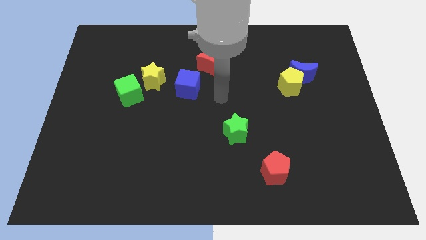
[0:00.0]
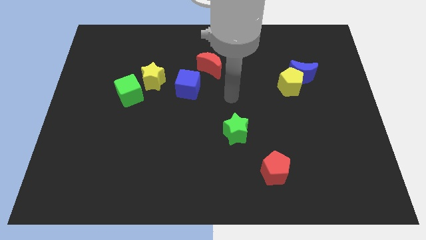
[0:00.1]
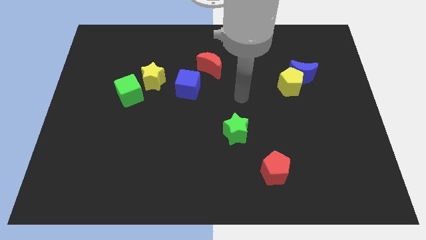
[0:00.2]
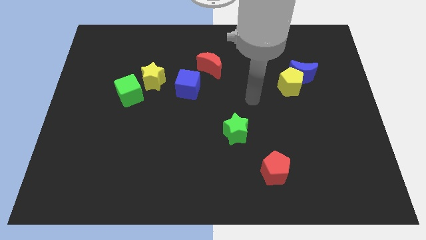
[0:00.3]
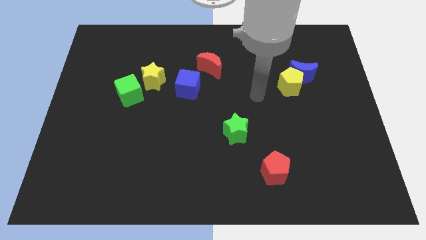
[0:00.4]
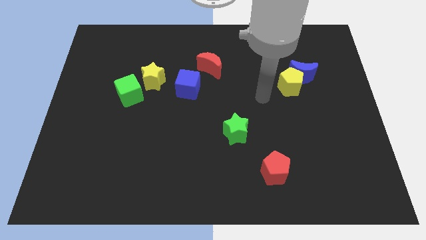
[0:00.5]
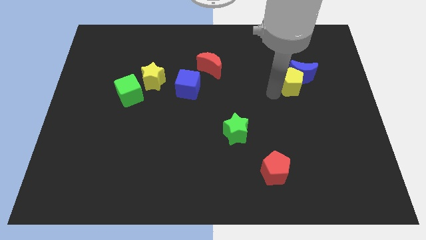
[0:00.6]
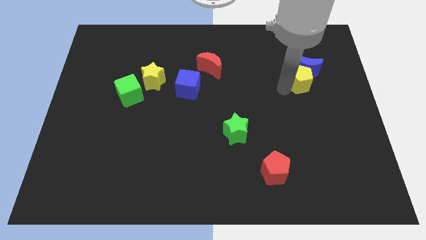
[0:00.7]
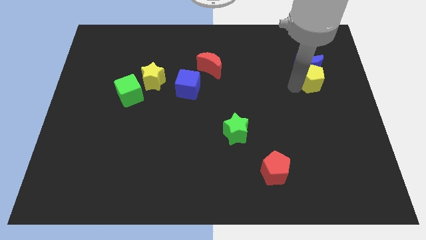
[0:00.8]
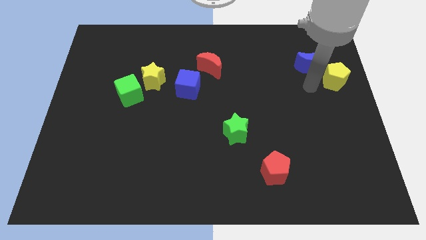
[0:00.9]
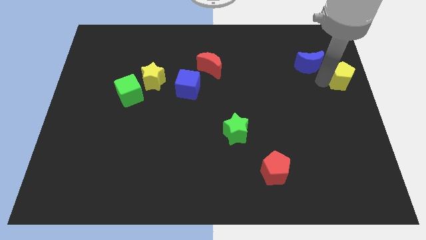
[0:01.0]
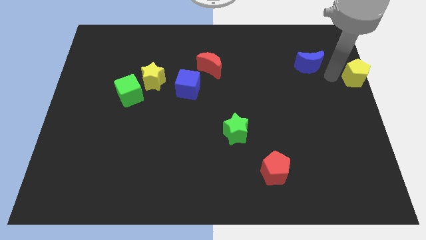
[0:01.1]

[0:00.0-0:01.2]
move the blue moon away from the yellow pentagon

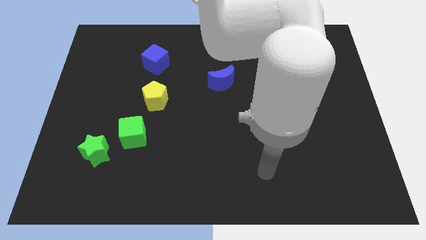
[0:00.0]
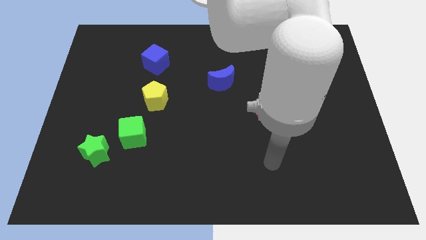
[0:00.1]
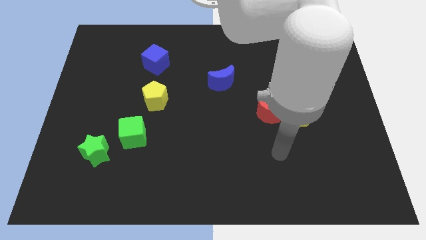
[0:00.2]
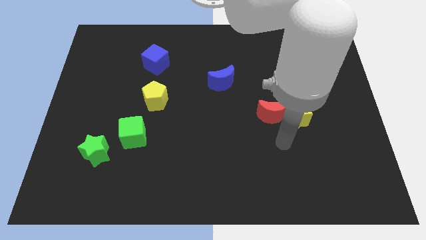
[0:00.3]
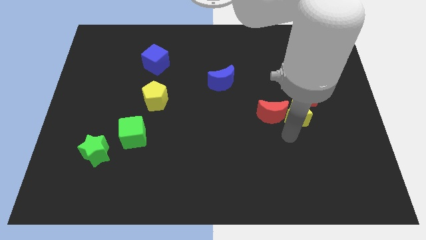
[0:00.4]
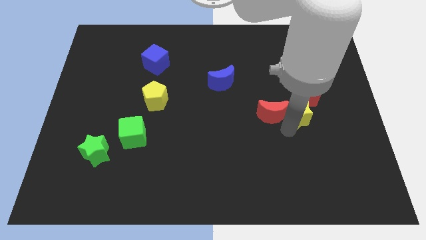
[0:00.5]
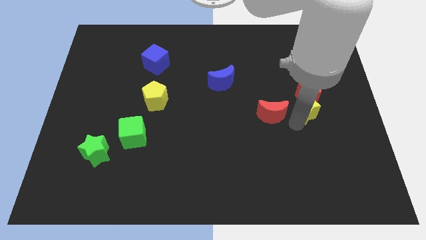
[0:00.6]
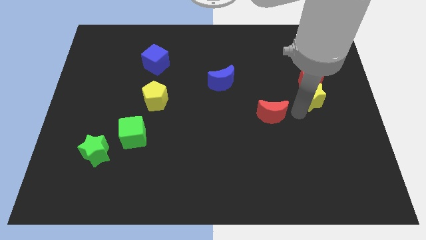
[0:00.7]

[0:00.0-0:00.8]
move the red moon away from the yellow star

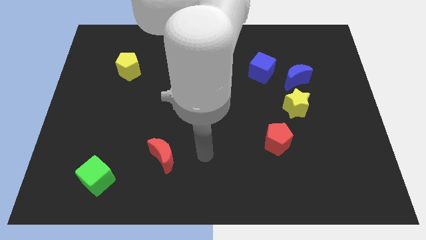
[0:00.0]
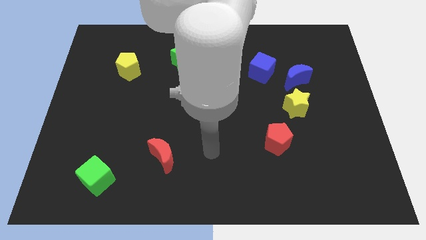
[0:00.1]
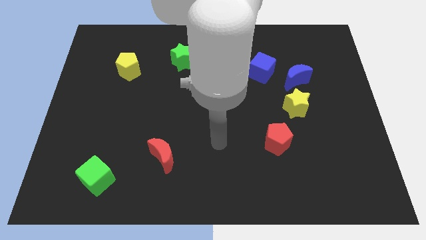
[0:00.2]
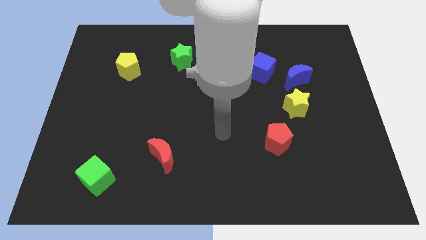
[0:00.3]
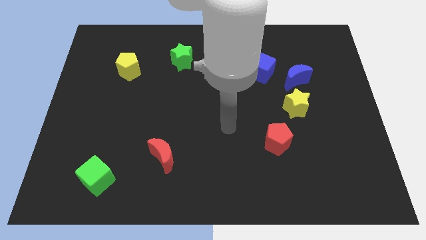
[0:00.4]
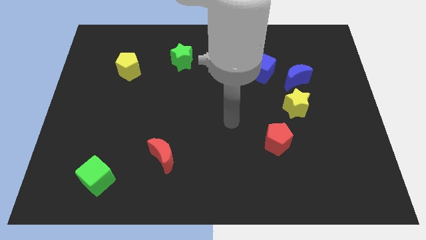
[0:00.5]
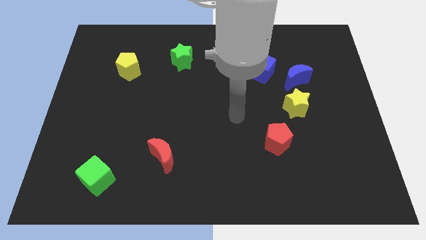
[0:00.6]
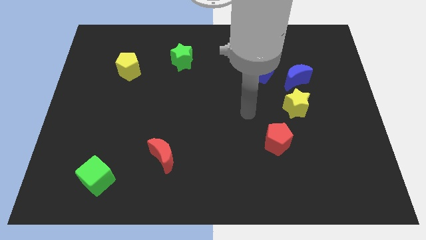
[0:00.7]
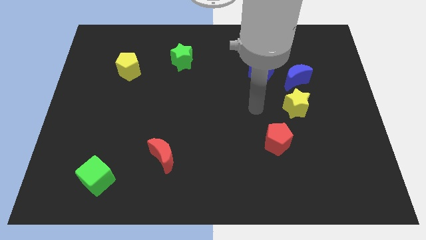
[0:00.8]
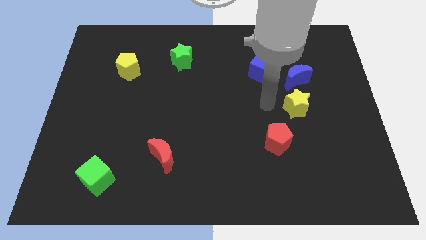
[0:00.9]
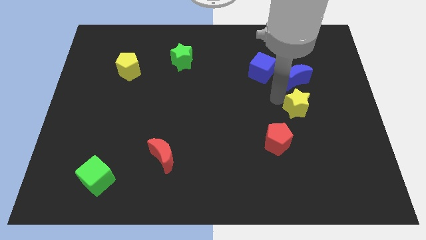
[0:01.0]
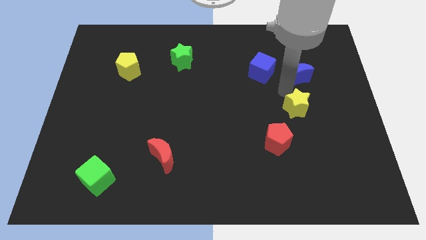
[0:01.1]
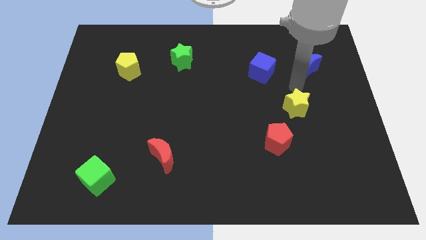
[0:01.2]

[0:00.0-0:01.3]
pull the yellow star apart from the blue moon

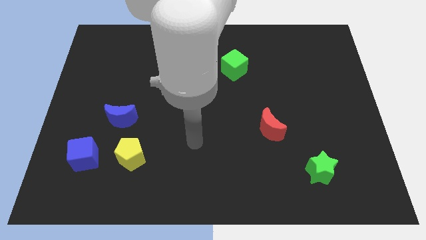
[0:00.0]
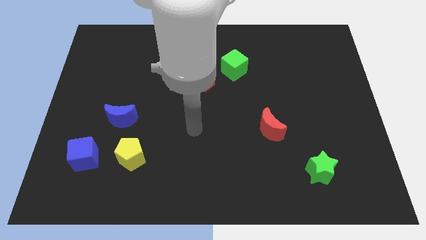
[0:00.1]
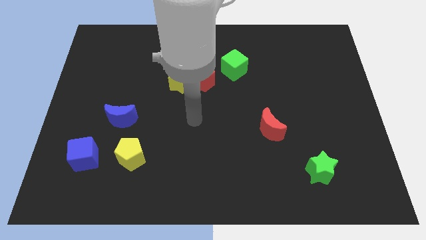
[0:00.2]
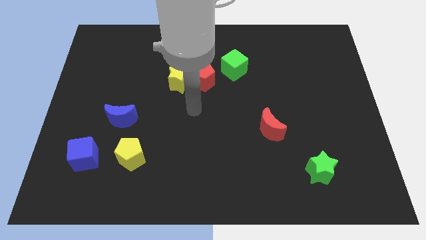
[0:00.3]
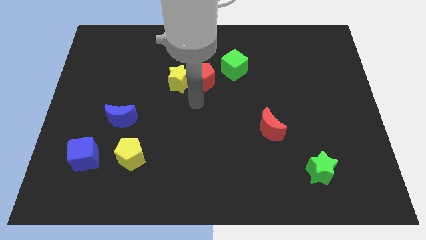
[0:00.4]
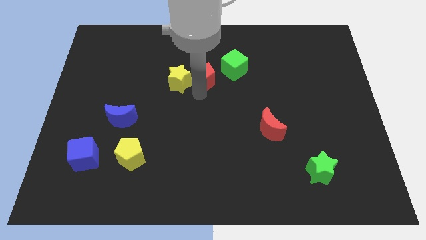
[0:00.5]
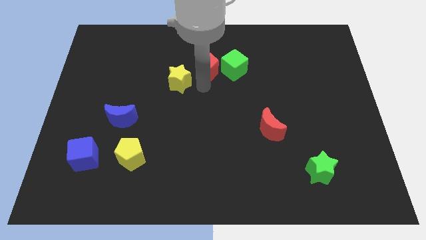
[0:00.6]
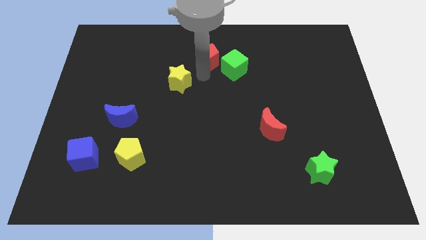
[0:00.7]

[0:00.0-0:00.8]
separate the yellow star from the red pentagon

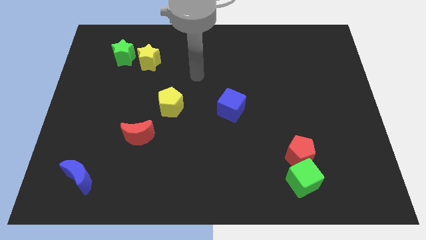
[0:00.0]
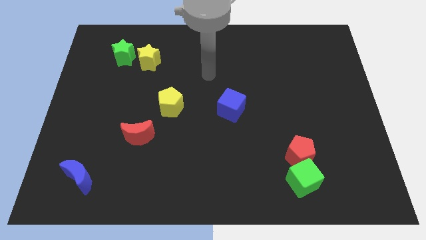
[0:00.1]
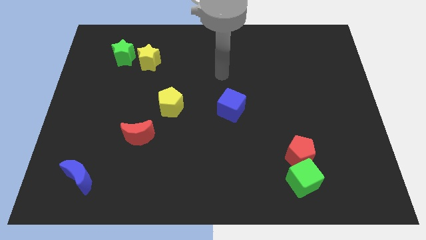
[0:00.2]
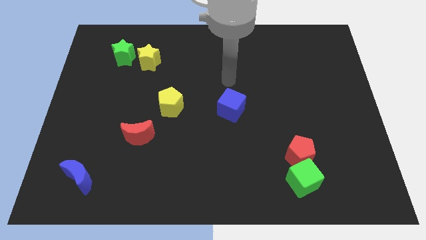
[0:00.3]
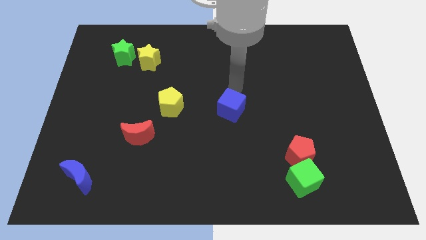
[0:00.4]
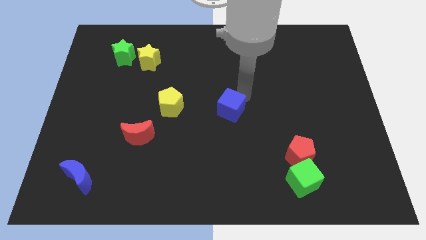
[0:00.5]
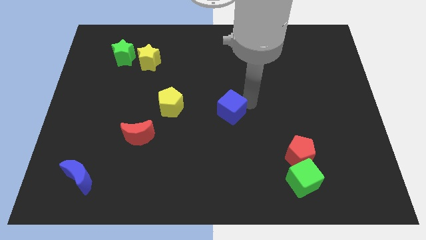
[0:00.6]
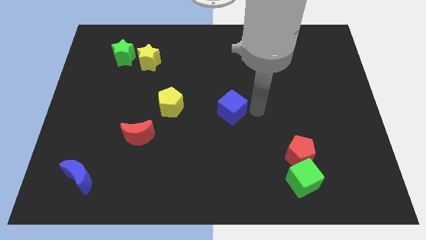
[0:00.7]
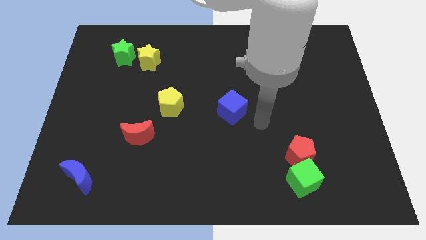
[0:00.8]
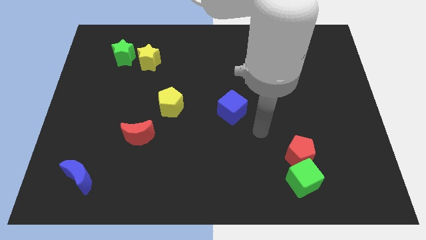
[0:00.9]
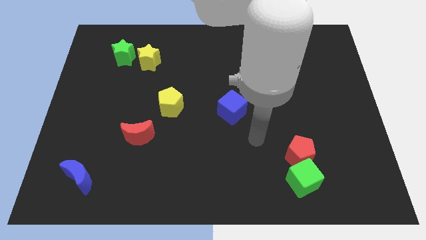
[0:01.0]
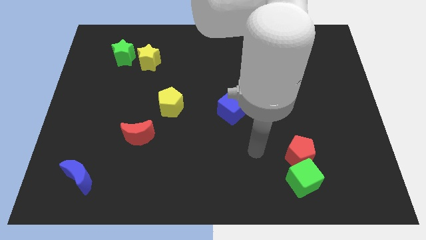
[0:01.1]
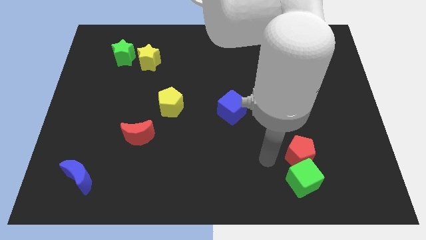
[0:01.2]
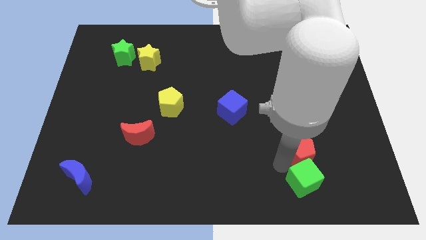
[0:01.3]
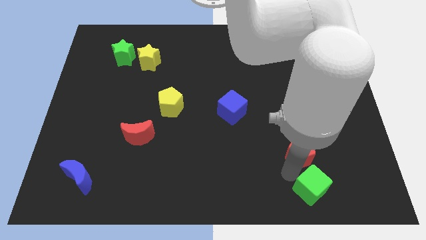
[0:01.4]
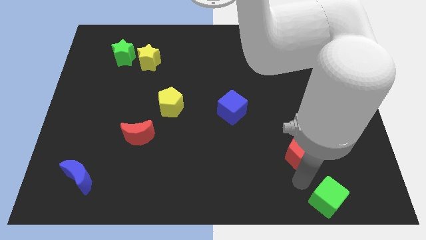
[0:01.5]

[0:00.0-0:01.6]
move the red pentagon away from the green cube

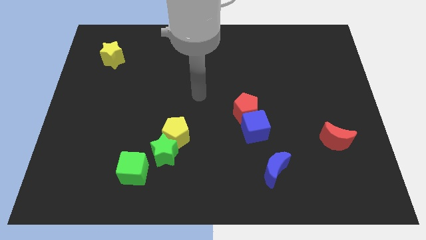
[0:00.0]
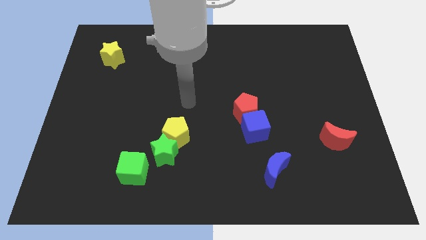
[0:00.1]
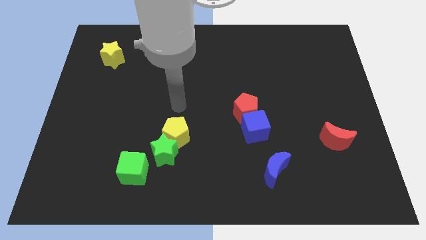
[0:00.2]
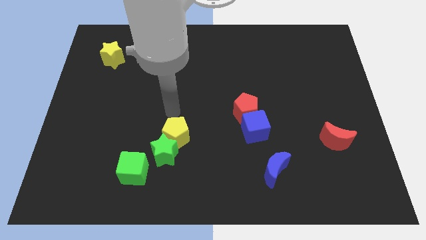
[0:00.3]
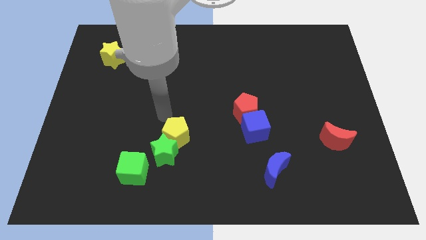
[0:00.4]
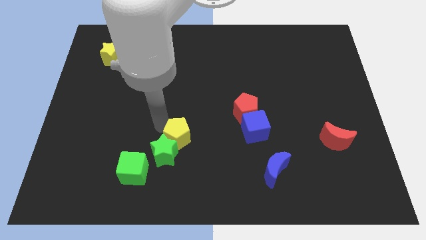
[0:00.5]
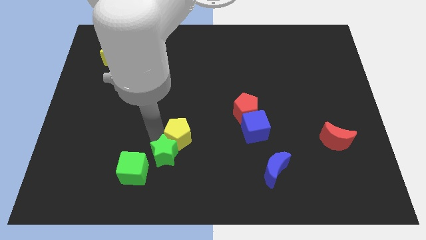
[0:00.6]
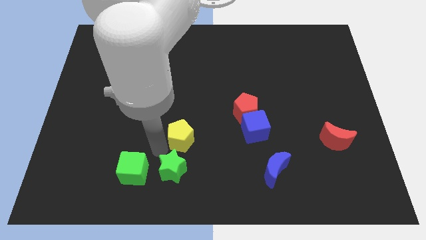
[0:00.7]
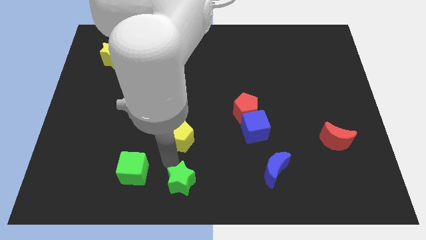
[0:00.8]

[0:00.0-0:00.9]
move the yellow pentagon away from the green star

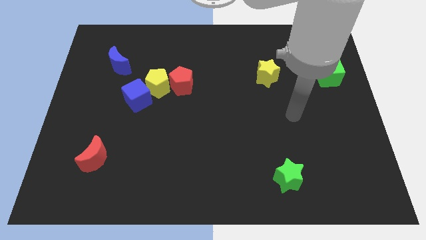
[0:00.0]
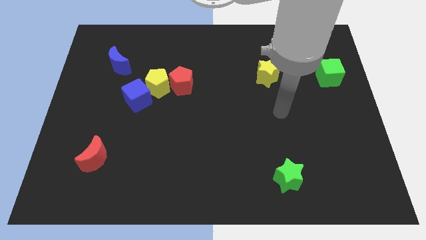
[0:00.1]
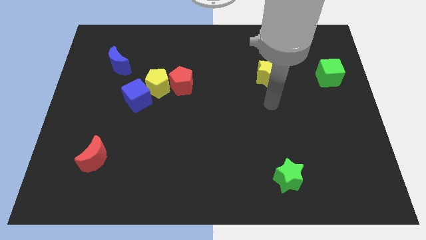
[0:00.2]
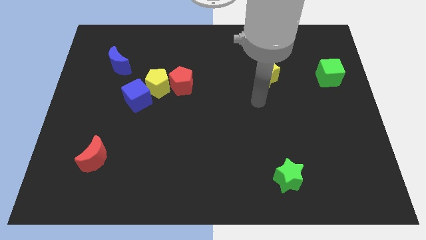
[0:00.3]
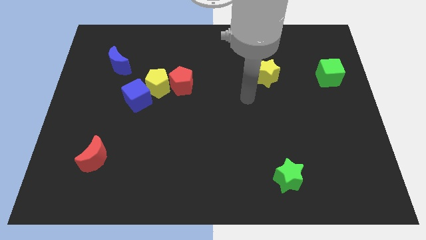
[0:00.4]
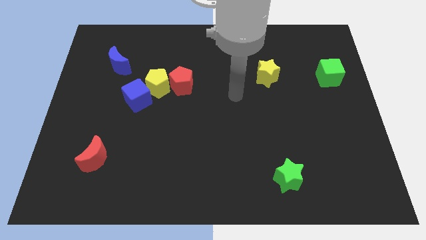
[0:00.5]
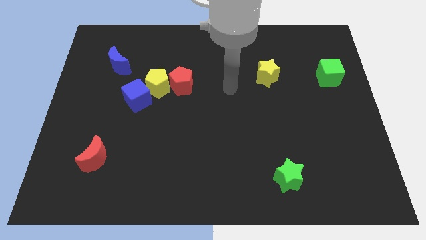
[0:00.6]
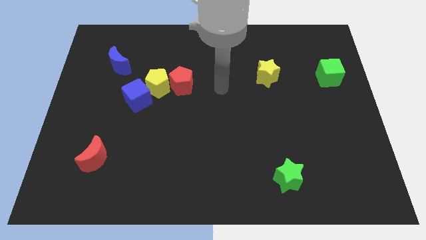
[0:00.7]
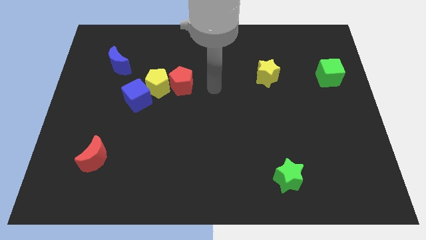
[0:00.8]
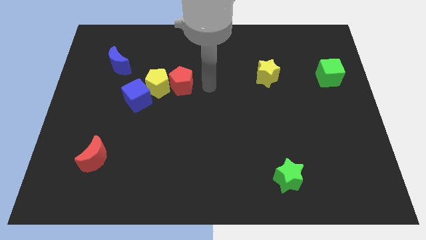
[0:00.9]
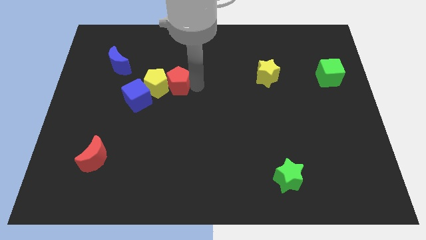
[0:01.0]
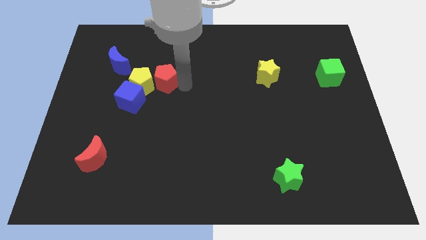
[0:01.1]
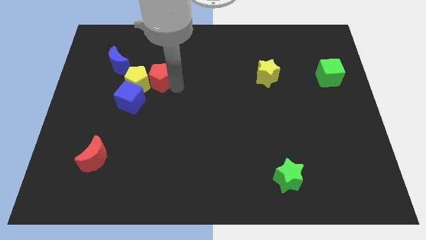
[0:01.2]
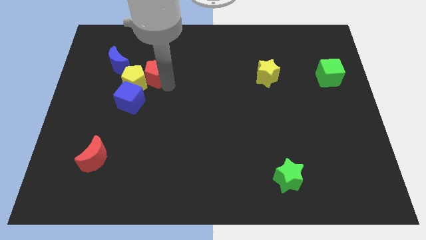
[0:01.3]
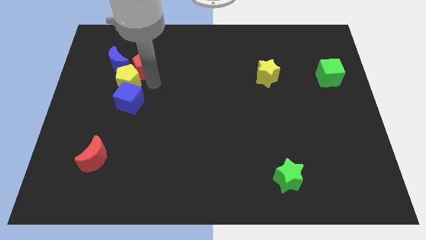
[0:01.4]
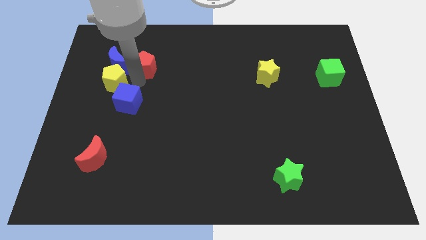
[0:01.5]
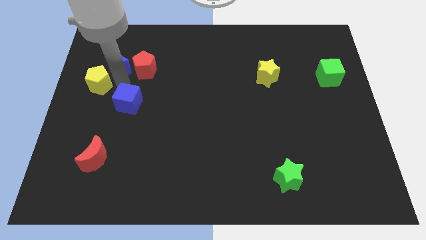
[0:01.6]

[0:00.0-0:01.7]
pull the blue cube apart from the yellow pentagon

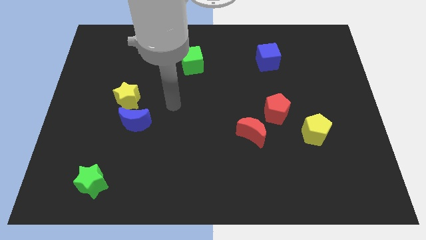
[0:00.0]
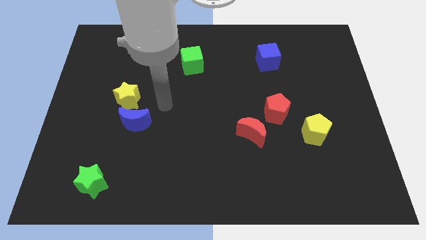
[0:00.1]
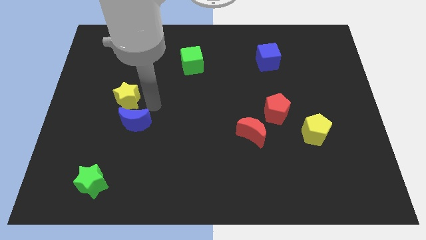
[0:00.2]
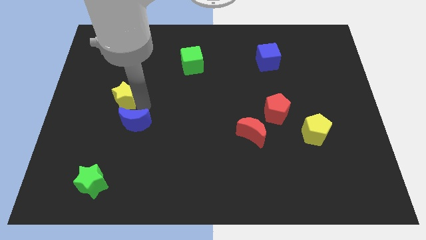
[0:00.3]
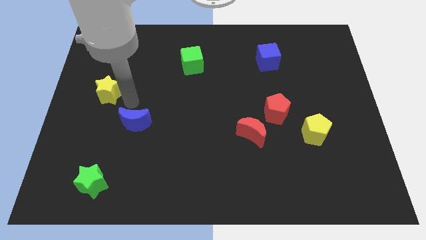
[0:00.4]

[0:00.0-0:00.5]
pull the blue moon apart from the yellow star

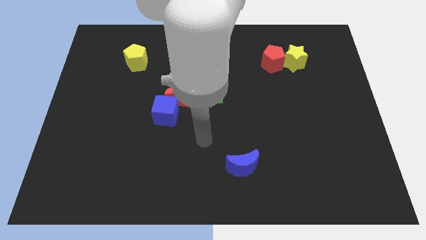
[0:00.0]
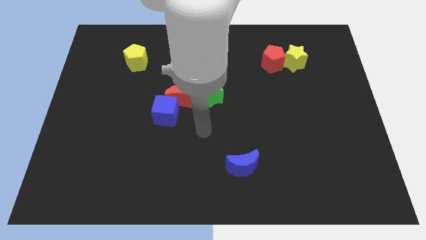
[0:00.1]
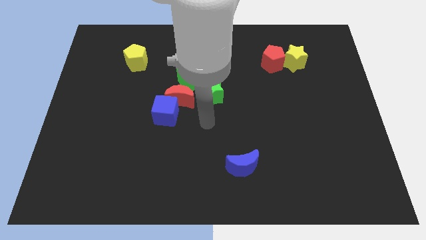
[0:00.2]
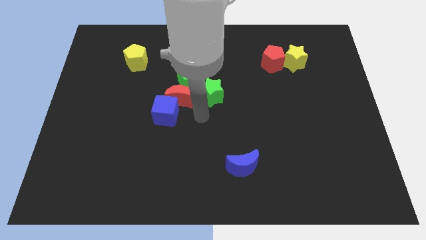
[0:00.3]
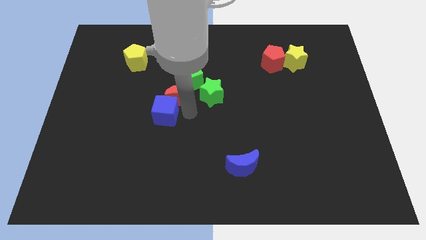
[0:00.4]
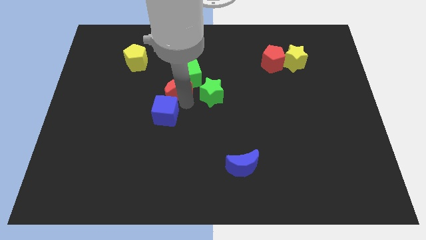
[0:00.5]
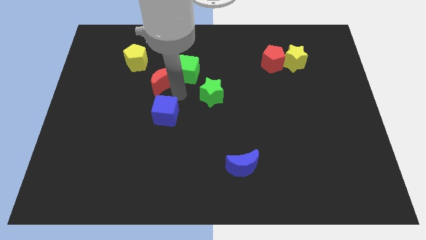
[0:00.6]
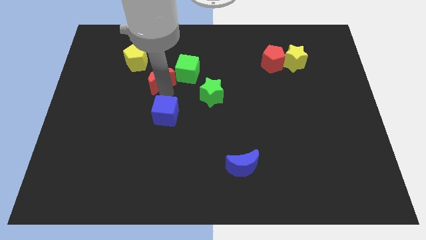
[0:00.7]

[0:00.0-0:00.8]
separate the blue cube from the red moon
